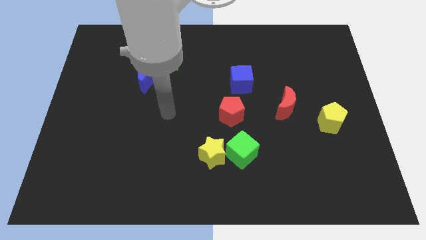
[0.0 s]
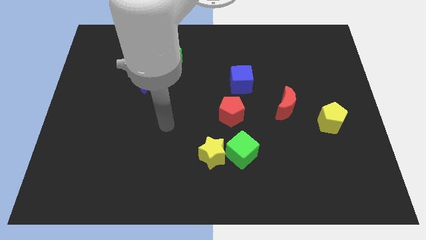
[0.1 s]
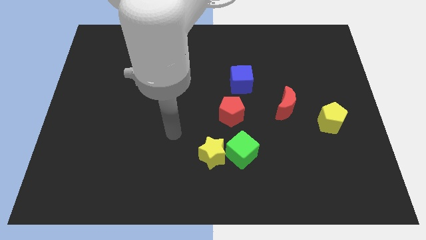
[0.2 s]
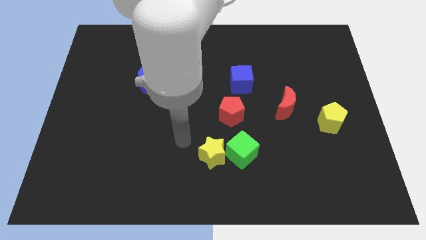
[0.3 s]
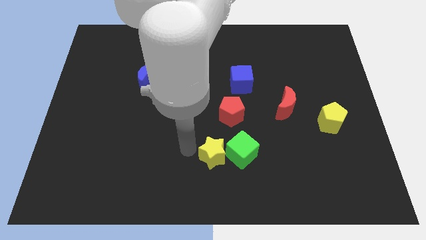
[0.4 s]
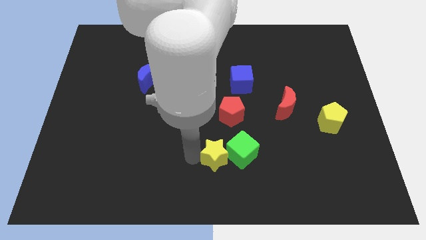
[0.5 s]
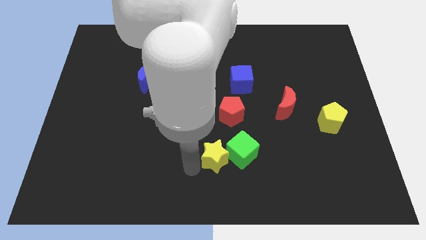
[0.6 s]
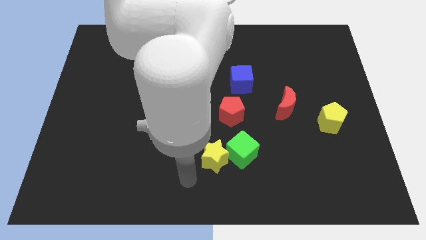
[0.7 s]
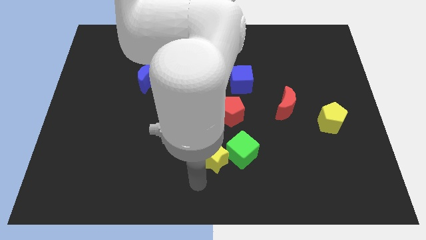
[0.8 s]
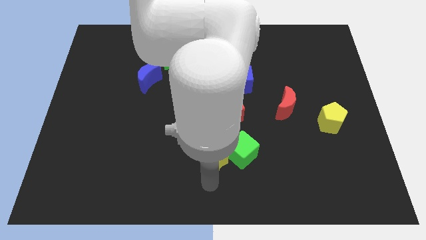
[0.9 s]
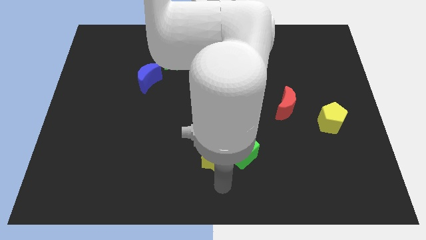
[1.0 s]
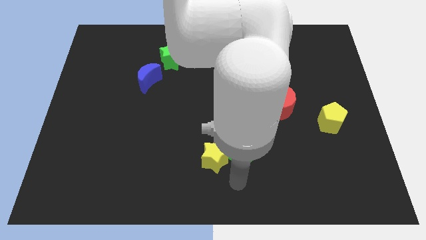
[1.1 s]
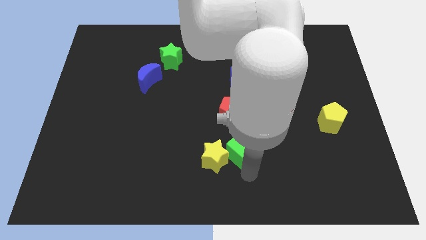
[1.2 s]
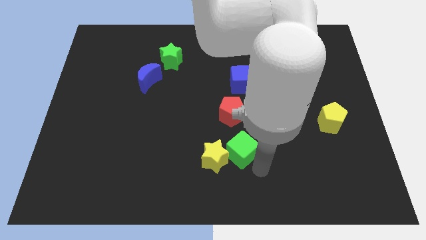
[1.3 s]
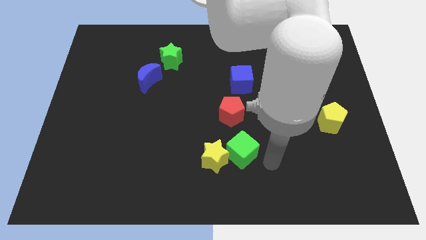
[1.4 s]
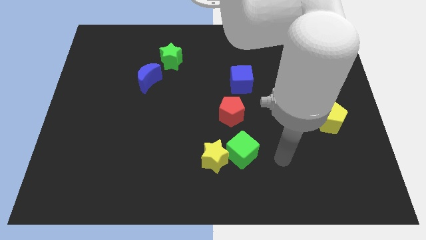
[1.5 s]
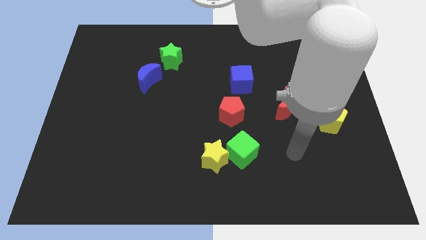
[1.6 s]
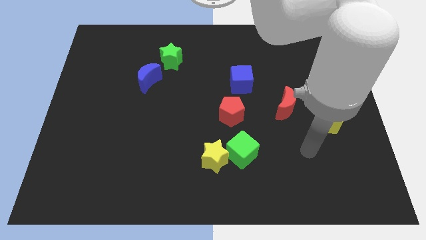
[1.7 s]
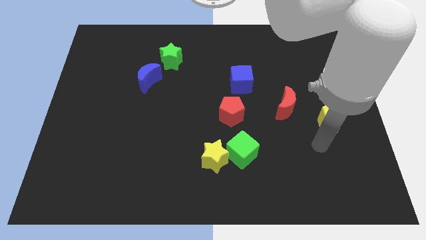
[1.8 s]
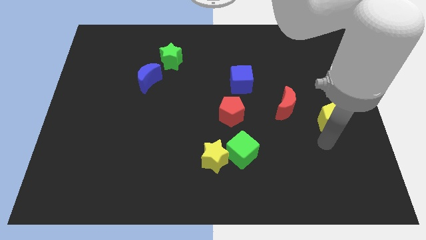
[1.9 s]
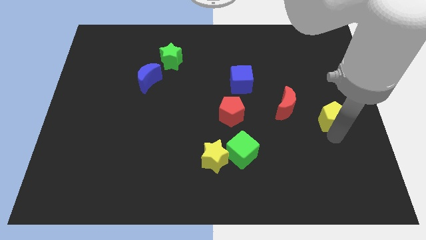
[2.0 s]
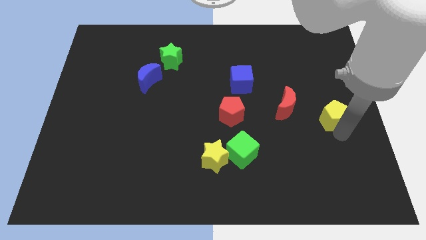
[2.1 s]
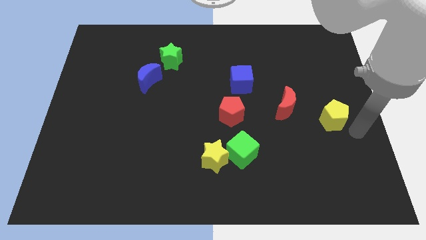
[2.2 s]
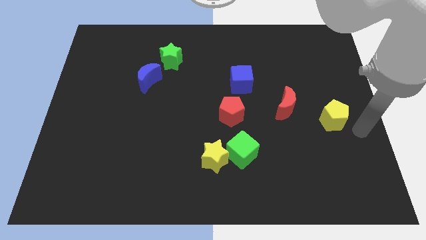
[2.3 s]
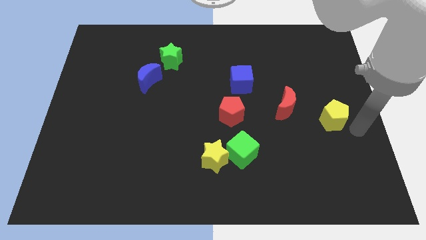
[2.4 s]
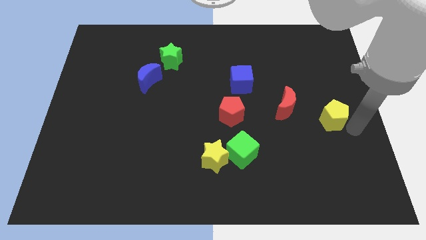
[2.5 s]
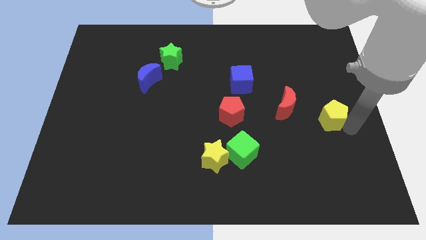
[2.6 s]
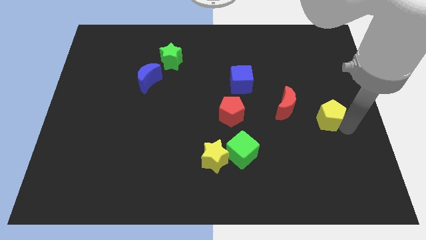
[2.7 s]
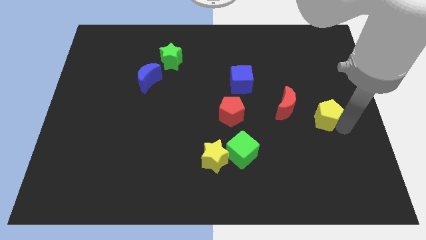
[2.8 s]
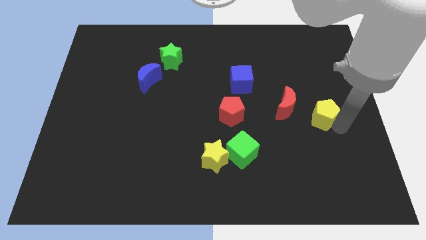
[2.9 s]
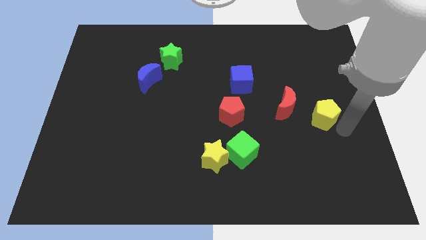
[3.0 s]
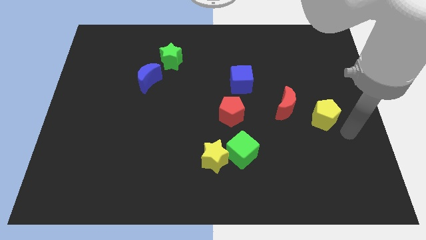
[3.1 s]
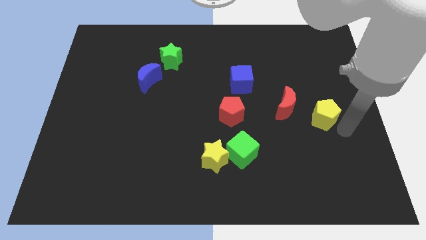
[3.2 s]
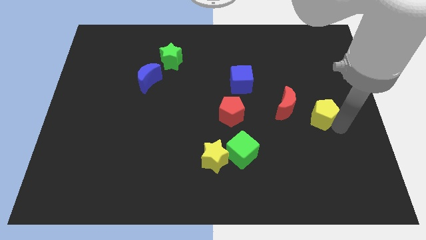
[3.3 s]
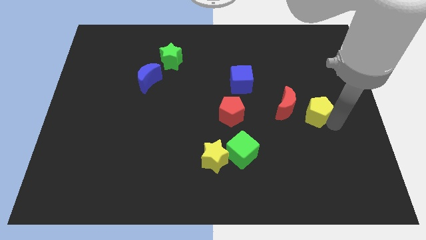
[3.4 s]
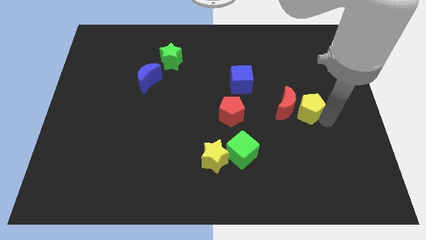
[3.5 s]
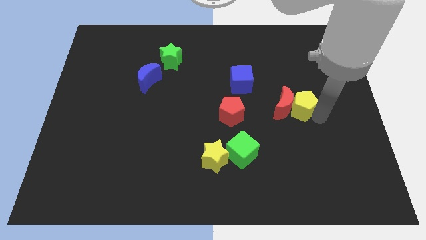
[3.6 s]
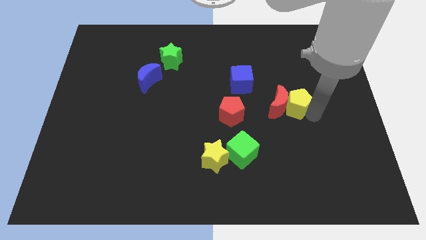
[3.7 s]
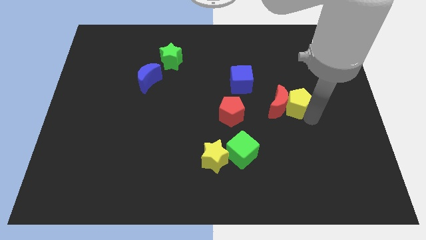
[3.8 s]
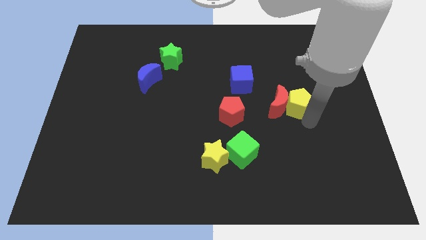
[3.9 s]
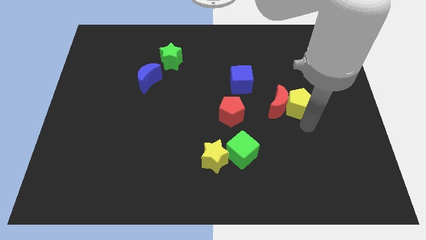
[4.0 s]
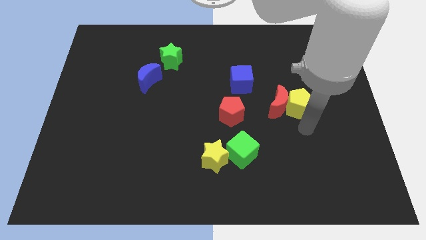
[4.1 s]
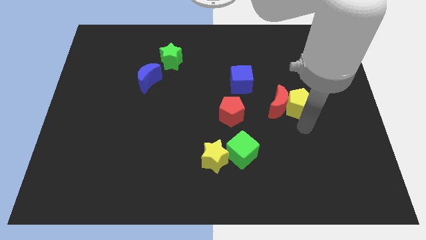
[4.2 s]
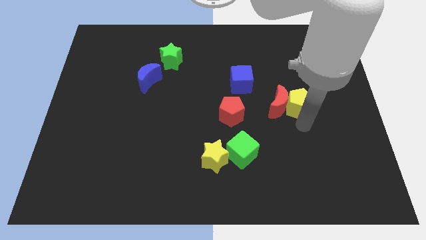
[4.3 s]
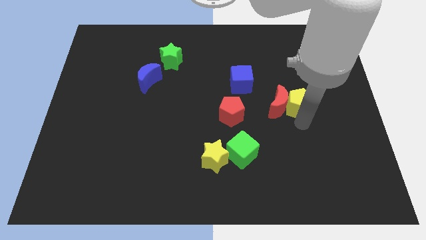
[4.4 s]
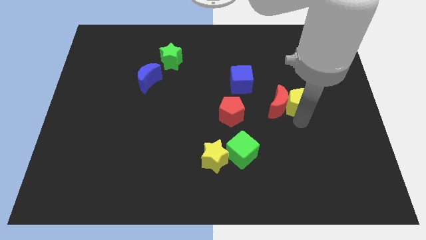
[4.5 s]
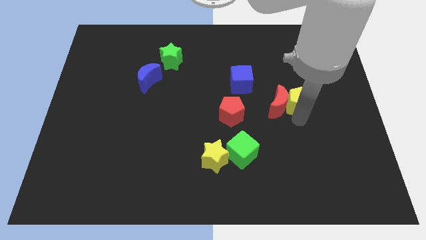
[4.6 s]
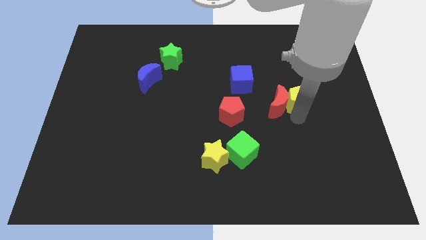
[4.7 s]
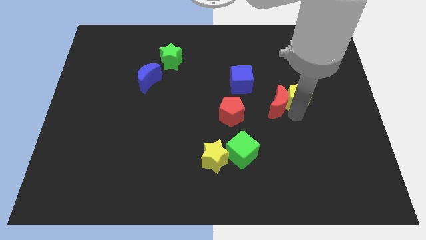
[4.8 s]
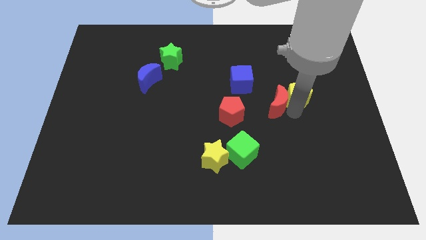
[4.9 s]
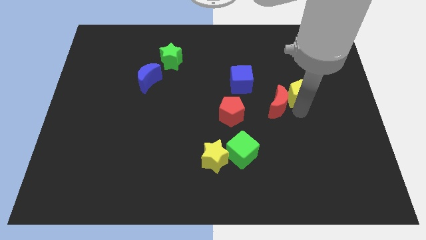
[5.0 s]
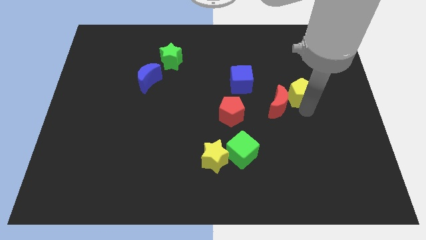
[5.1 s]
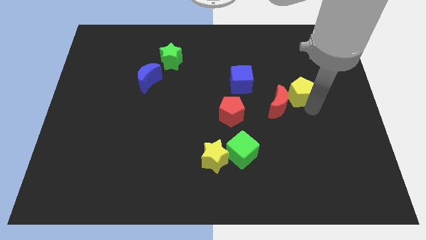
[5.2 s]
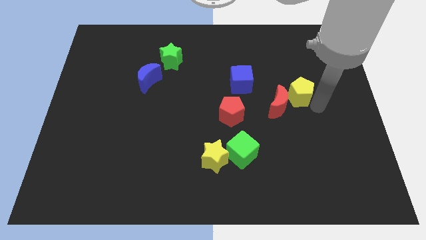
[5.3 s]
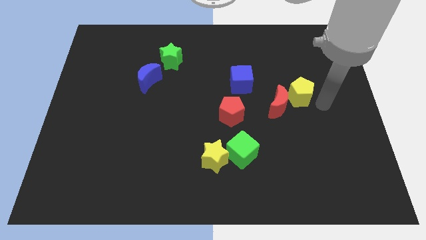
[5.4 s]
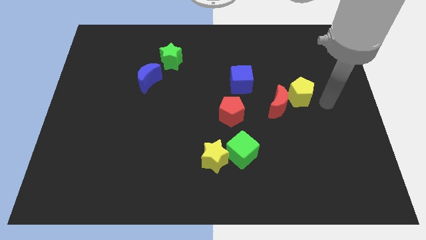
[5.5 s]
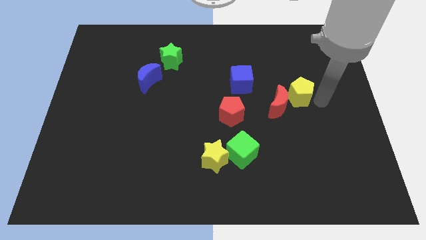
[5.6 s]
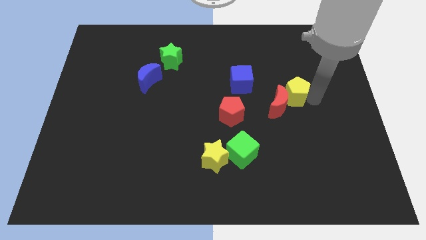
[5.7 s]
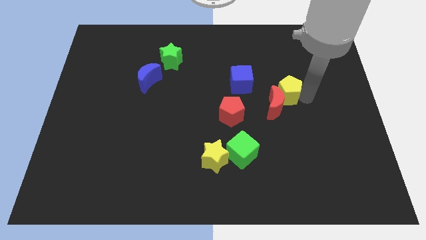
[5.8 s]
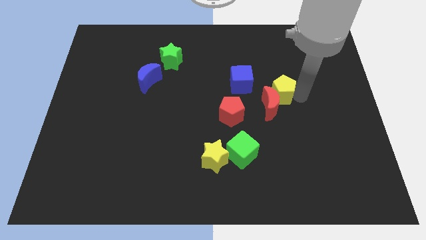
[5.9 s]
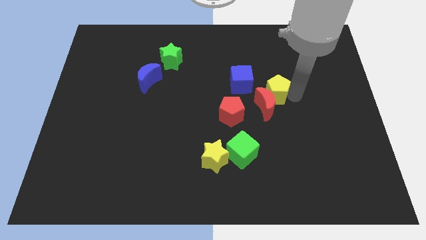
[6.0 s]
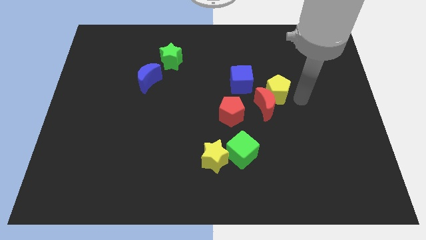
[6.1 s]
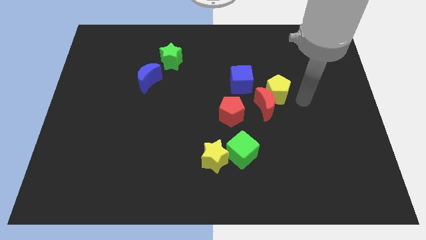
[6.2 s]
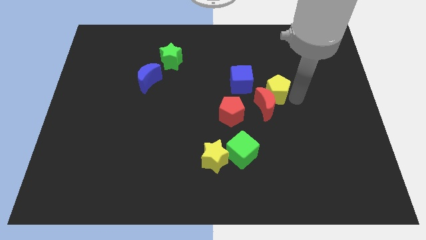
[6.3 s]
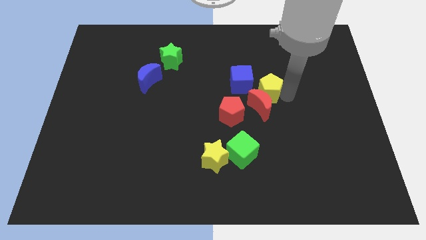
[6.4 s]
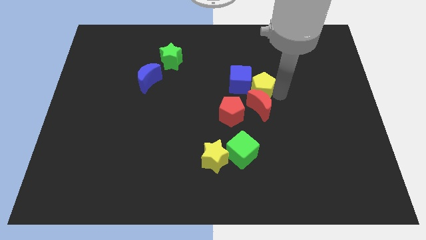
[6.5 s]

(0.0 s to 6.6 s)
put the yellow pentagon next to the blue cube

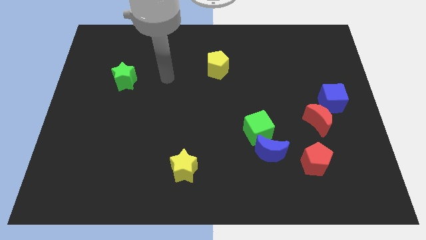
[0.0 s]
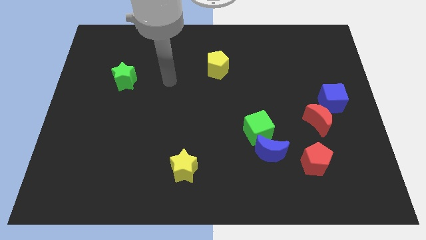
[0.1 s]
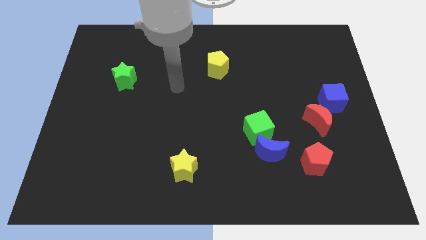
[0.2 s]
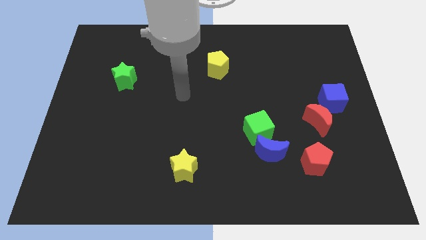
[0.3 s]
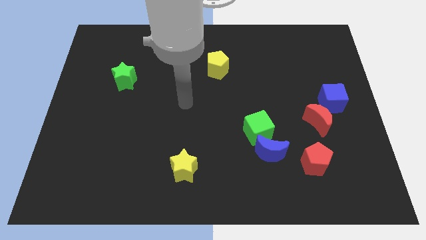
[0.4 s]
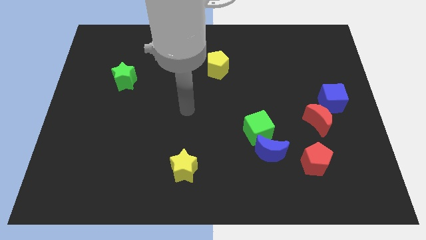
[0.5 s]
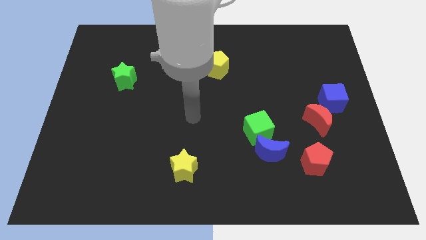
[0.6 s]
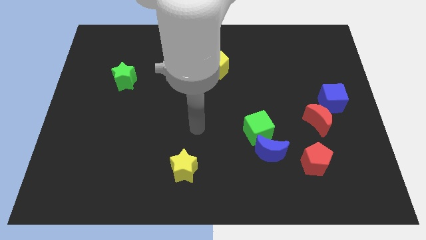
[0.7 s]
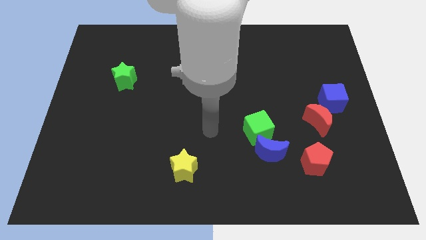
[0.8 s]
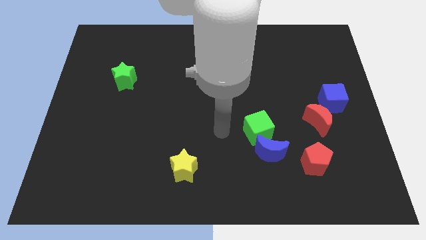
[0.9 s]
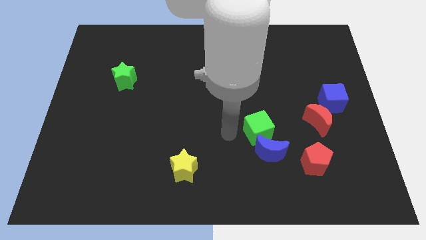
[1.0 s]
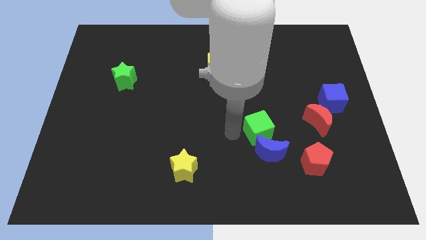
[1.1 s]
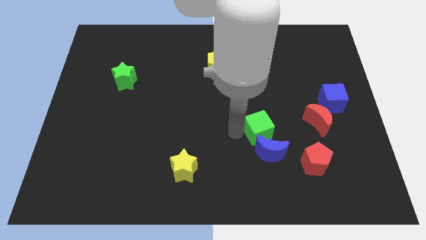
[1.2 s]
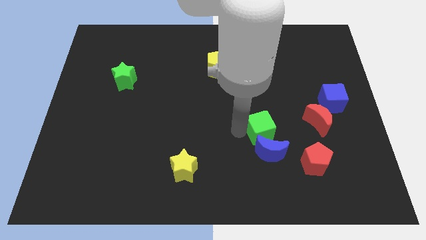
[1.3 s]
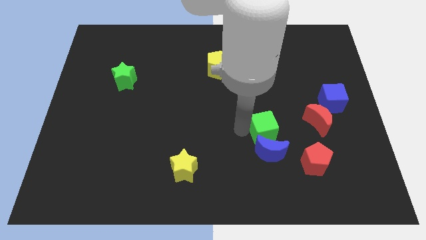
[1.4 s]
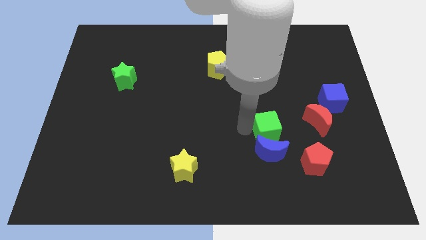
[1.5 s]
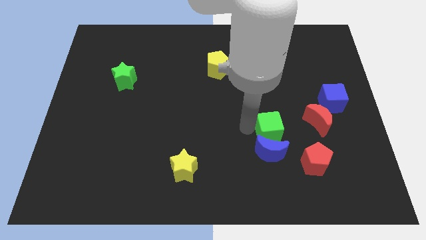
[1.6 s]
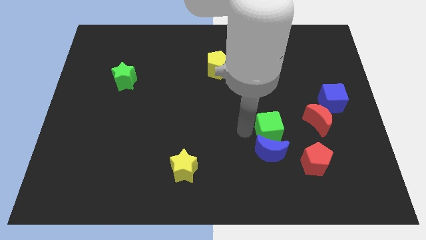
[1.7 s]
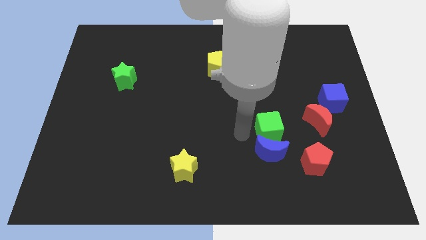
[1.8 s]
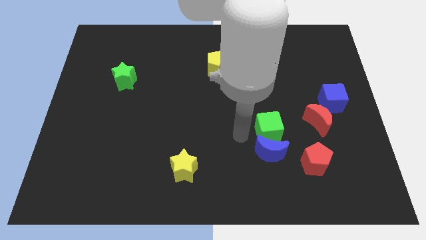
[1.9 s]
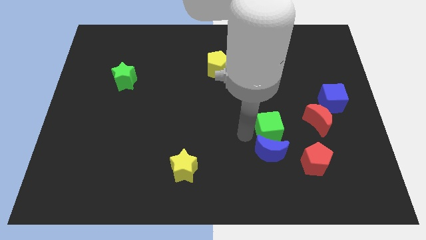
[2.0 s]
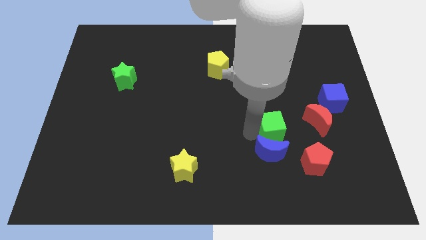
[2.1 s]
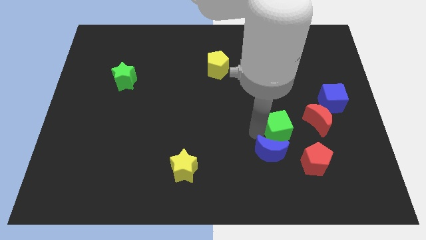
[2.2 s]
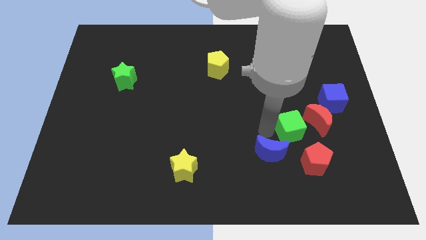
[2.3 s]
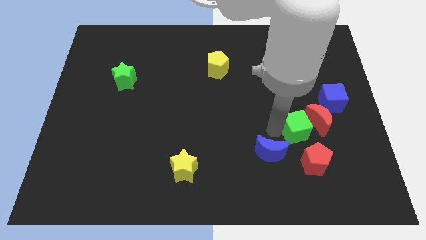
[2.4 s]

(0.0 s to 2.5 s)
put the green cube to the red moon
